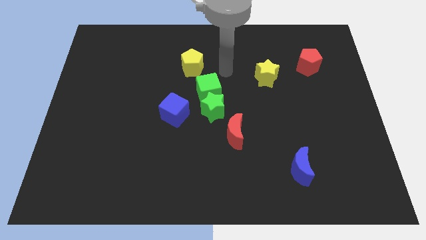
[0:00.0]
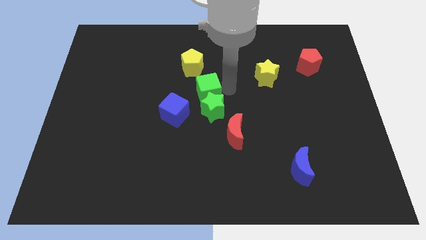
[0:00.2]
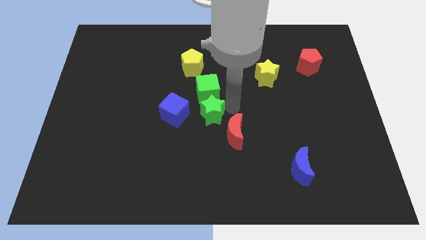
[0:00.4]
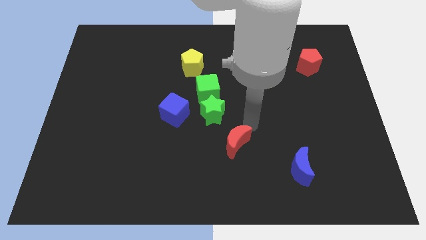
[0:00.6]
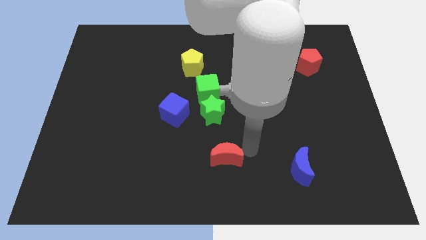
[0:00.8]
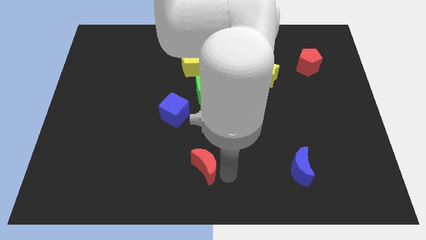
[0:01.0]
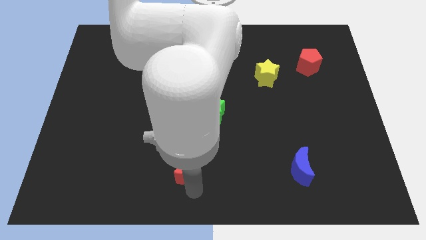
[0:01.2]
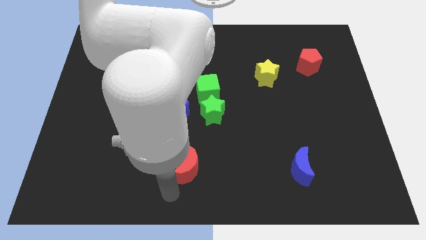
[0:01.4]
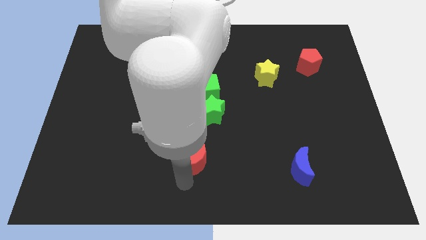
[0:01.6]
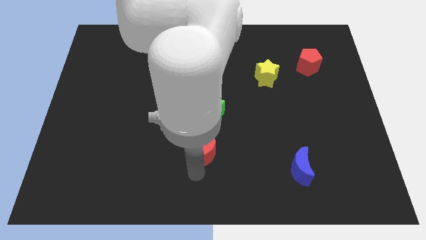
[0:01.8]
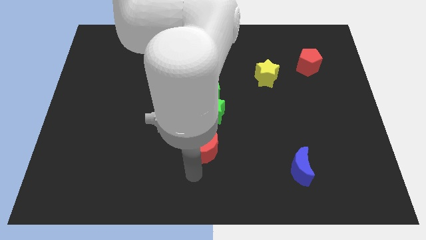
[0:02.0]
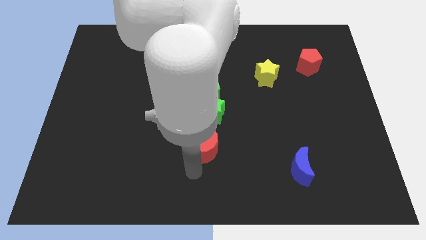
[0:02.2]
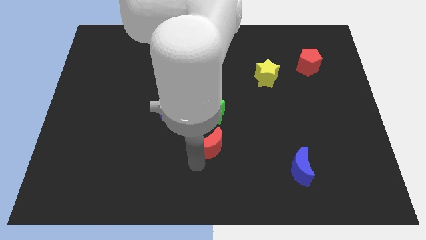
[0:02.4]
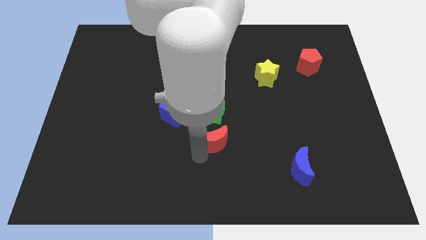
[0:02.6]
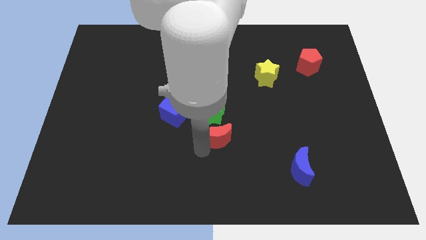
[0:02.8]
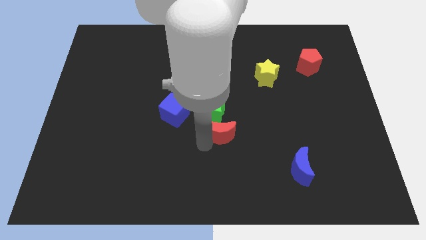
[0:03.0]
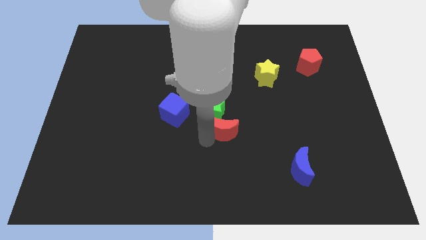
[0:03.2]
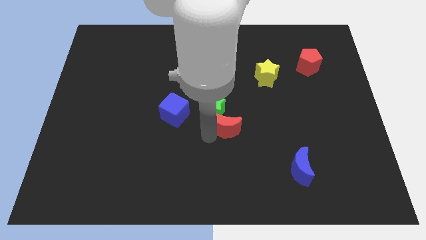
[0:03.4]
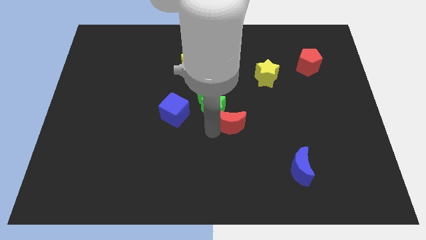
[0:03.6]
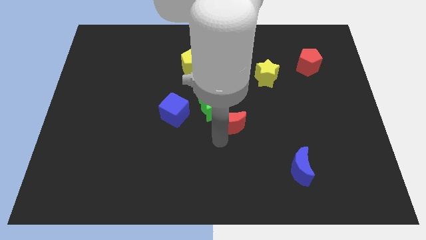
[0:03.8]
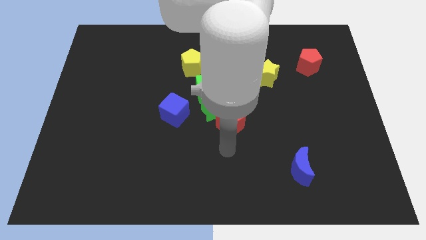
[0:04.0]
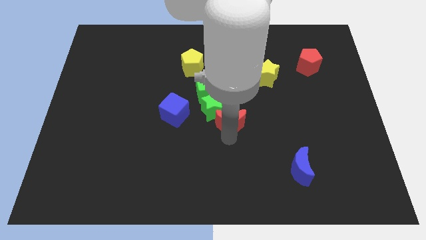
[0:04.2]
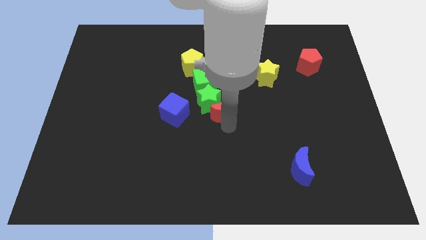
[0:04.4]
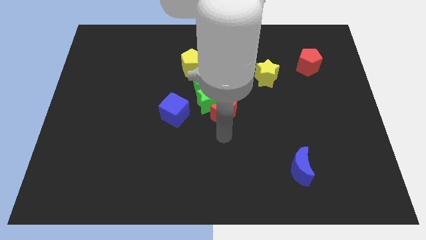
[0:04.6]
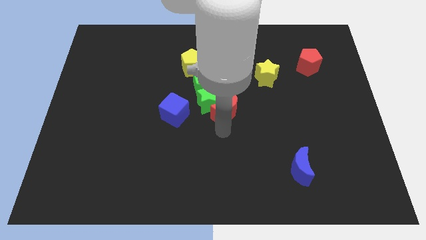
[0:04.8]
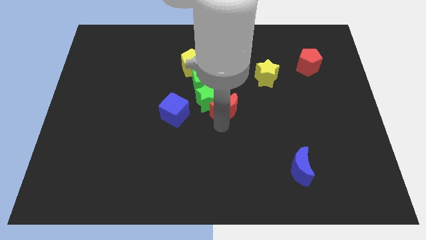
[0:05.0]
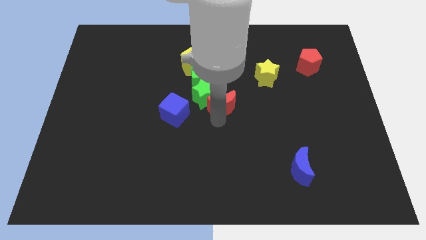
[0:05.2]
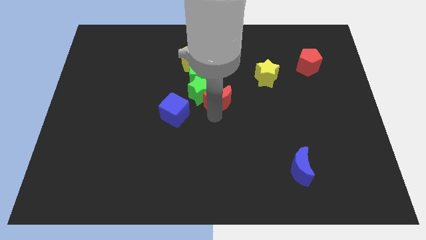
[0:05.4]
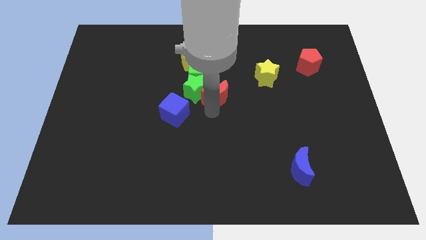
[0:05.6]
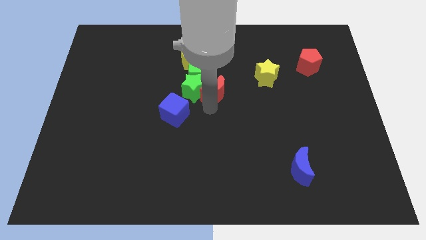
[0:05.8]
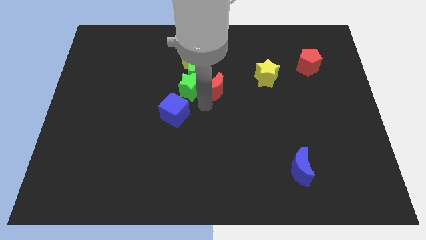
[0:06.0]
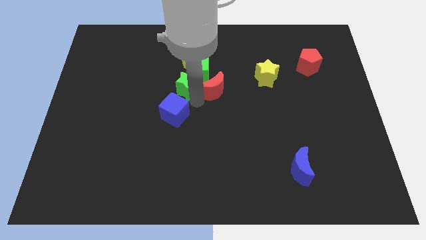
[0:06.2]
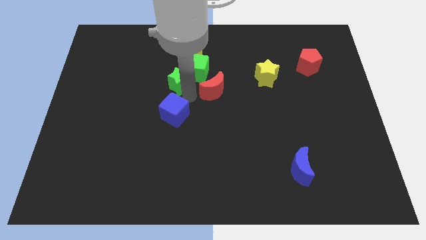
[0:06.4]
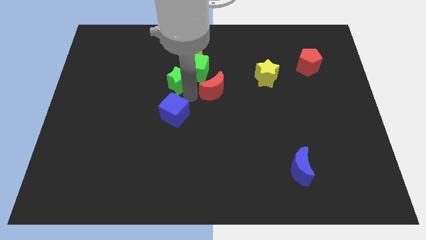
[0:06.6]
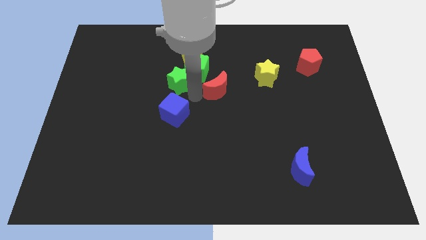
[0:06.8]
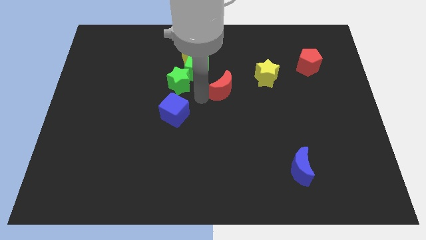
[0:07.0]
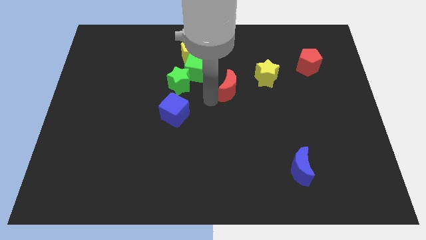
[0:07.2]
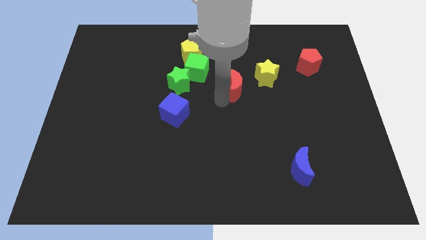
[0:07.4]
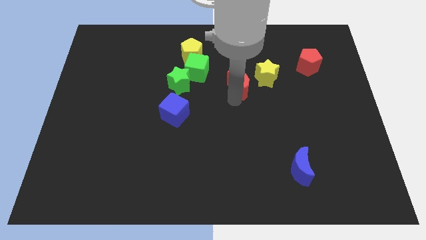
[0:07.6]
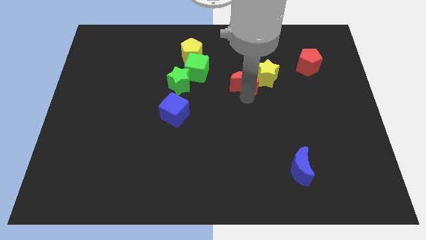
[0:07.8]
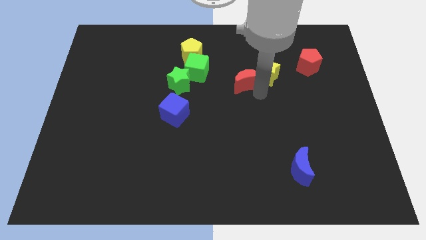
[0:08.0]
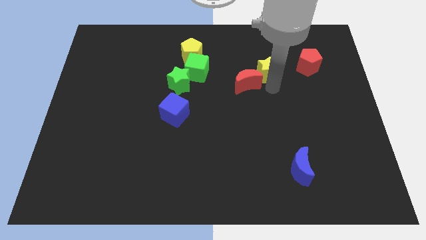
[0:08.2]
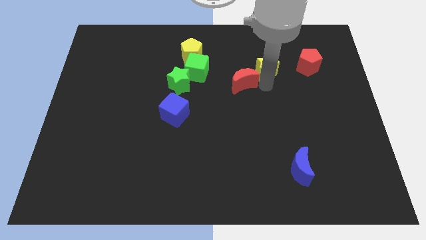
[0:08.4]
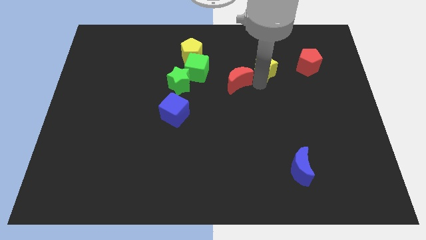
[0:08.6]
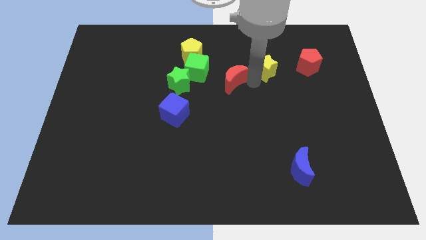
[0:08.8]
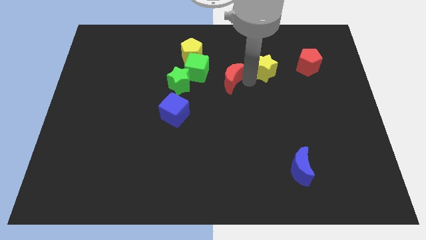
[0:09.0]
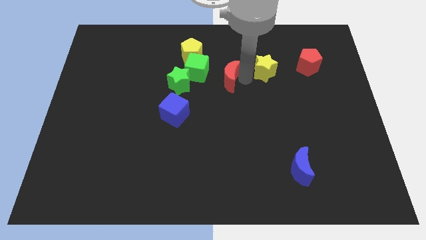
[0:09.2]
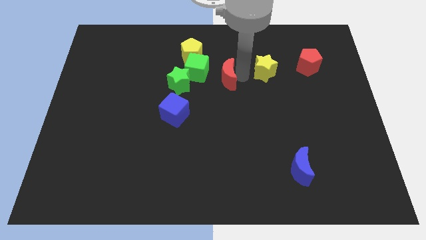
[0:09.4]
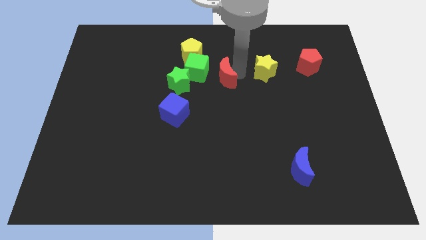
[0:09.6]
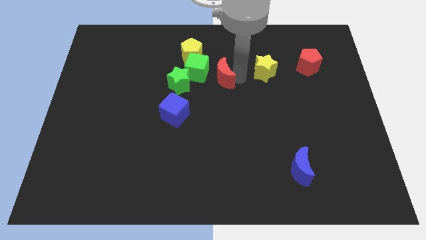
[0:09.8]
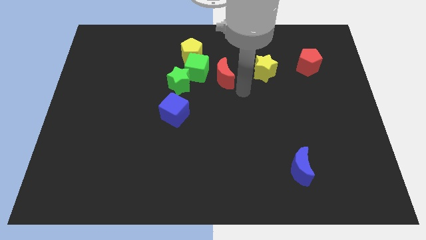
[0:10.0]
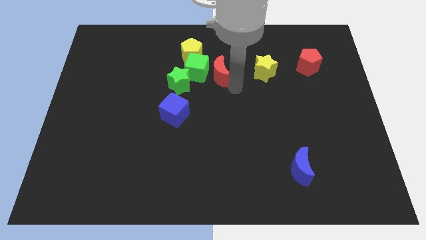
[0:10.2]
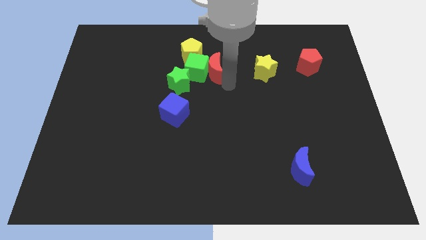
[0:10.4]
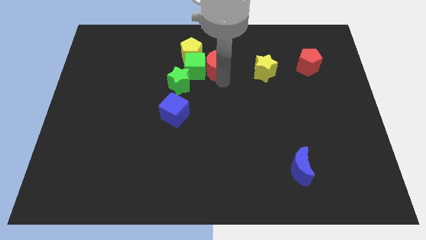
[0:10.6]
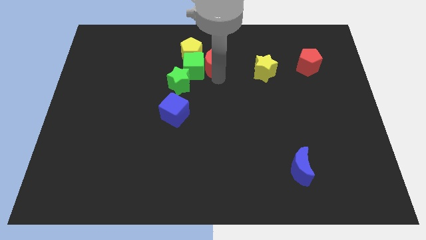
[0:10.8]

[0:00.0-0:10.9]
push the red moon to the yellow pentagon

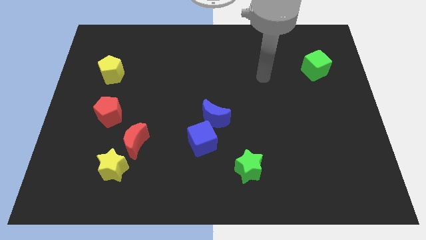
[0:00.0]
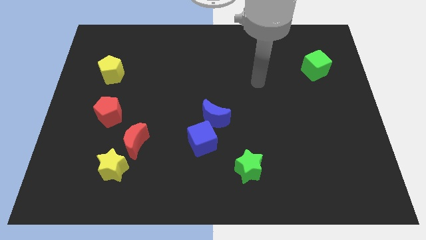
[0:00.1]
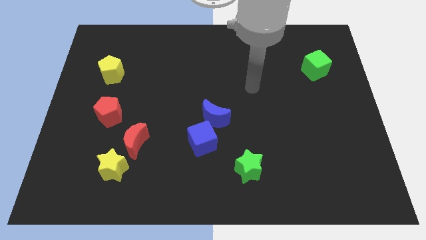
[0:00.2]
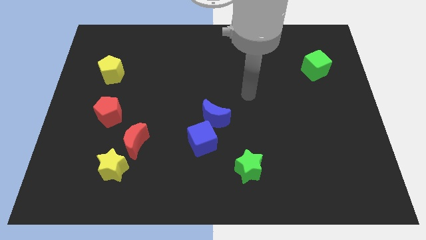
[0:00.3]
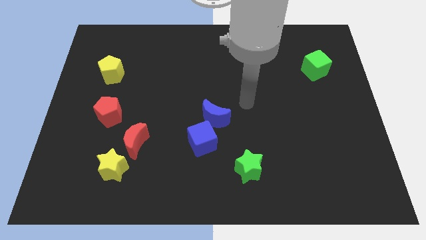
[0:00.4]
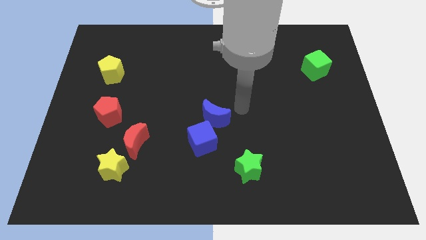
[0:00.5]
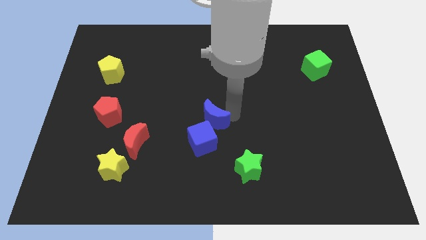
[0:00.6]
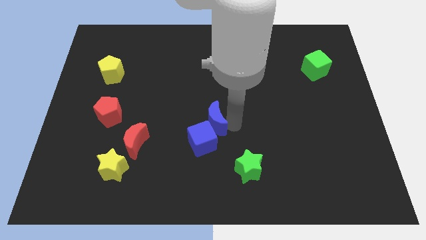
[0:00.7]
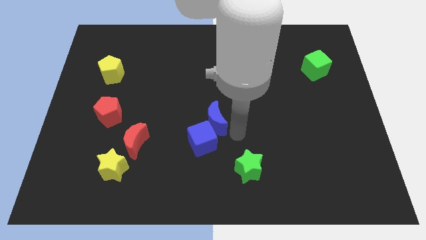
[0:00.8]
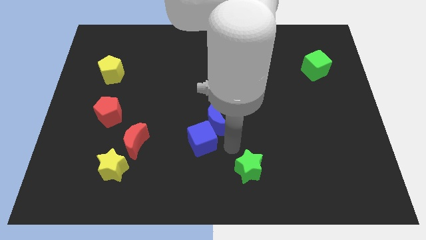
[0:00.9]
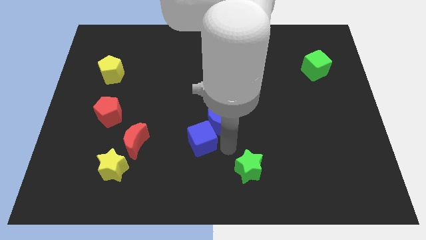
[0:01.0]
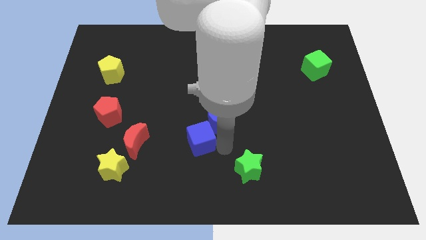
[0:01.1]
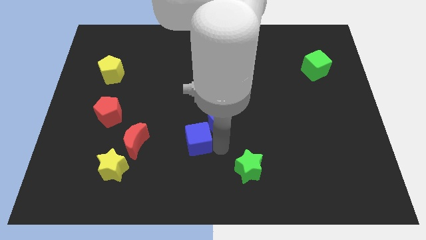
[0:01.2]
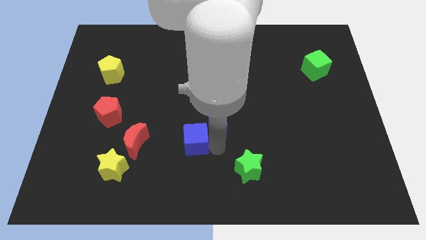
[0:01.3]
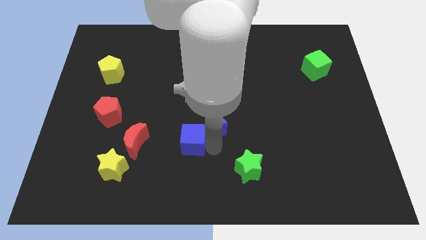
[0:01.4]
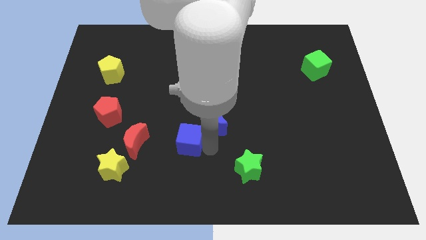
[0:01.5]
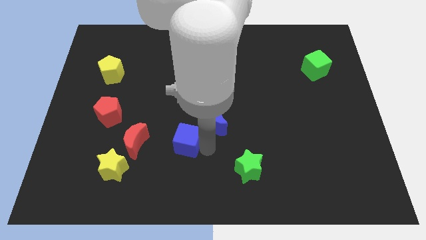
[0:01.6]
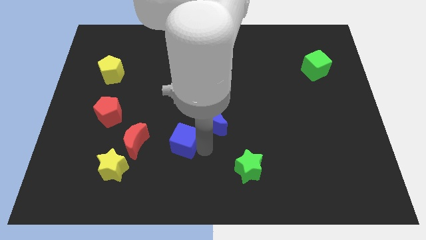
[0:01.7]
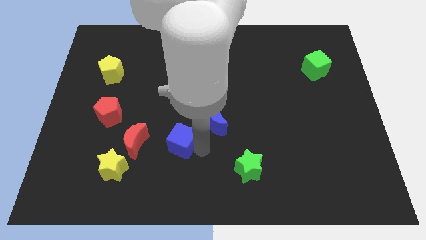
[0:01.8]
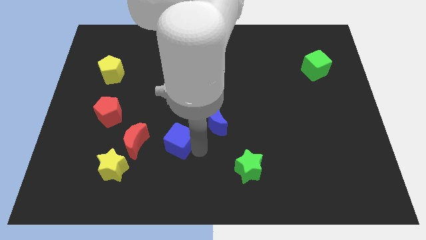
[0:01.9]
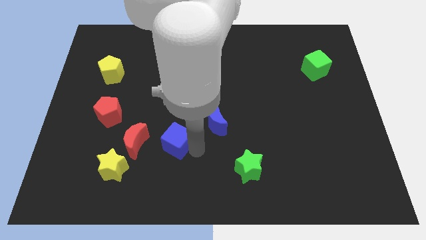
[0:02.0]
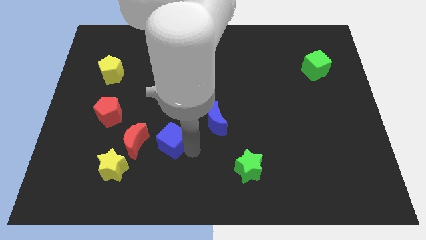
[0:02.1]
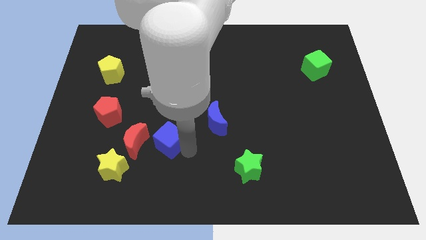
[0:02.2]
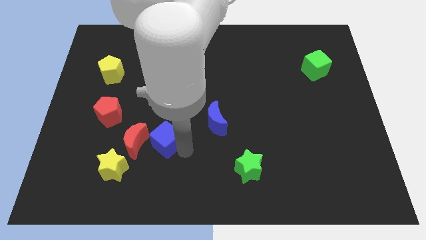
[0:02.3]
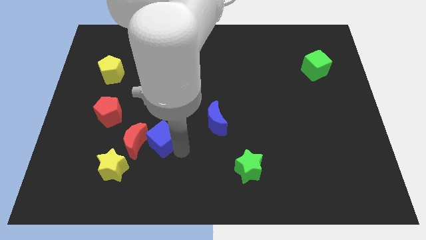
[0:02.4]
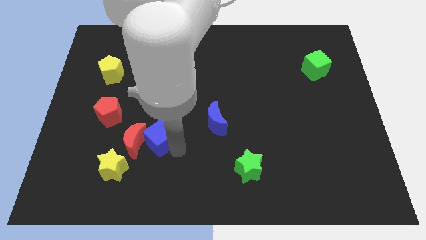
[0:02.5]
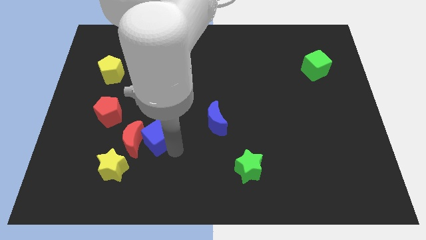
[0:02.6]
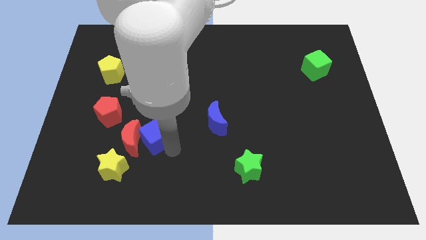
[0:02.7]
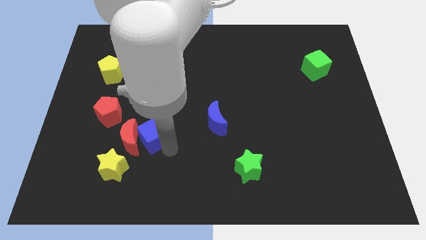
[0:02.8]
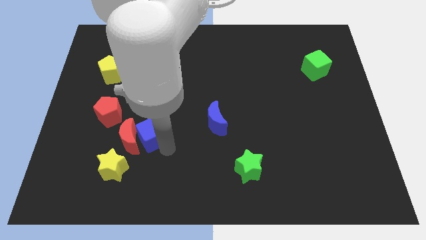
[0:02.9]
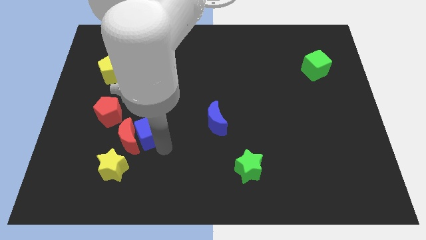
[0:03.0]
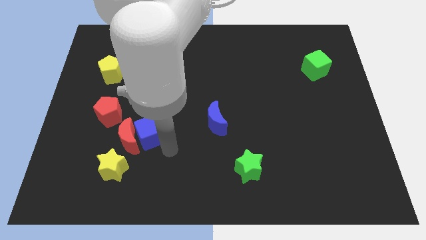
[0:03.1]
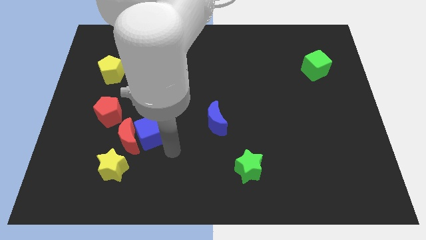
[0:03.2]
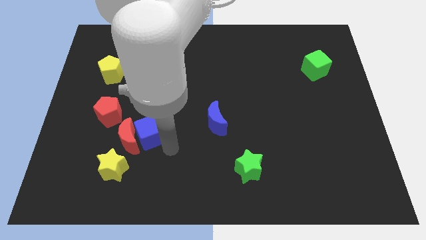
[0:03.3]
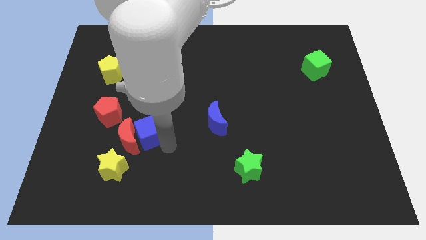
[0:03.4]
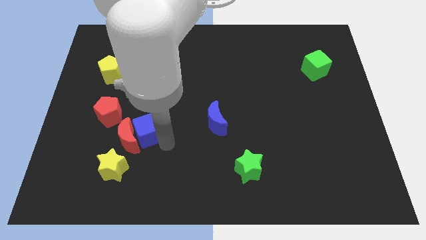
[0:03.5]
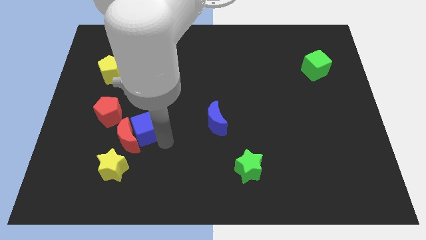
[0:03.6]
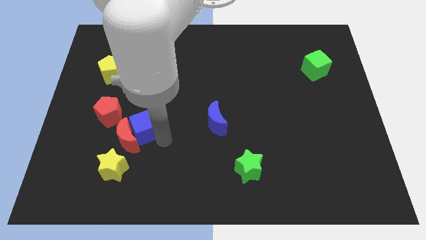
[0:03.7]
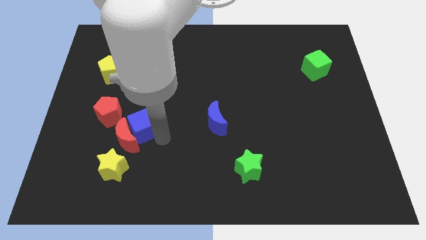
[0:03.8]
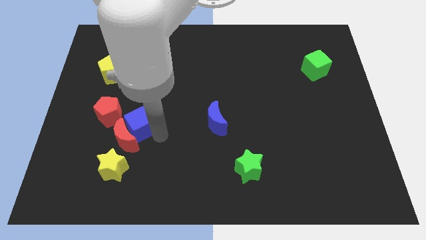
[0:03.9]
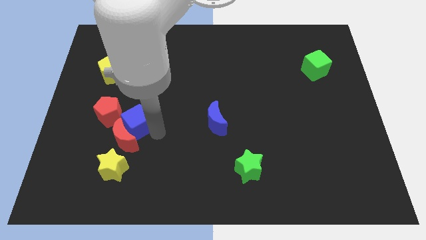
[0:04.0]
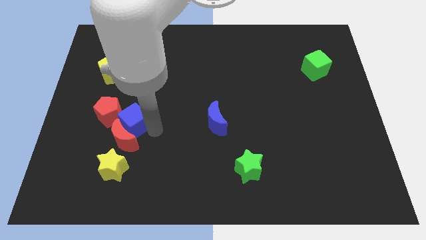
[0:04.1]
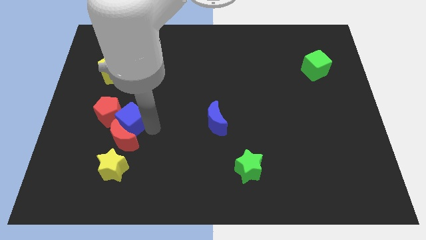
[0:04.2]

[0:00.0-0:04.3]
move the blue cube towards the red pentagon
